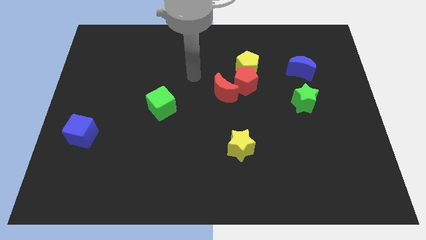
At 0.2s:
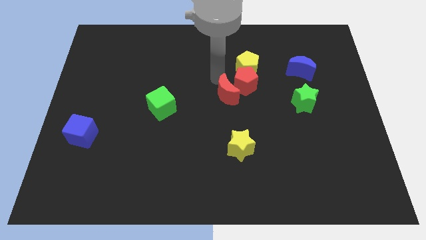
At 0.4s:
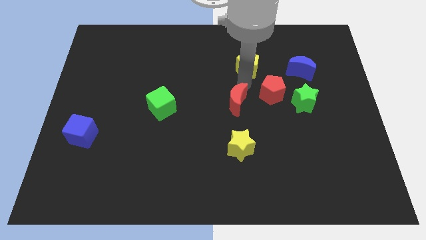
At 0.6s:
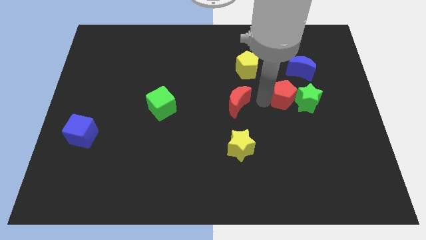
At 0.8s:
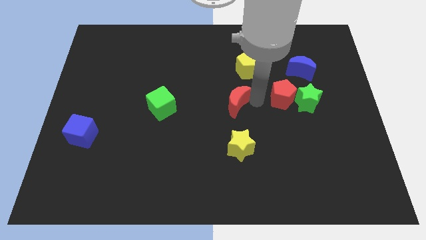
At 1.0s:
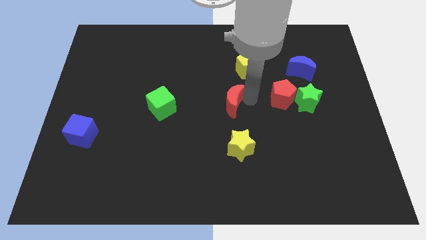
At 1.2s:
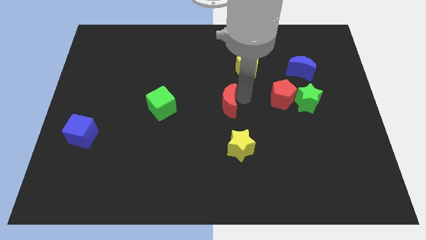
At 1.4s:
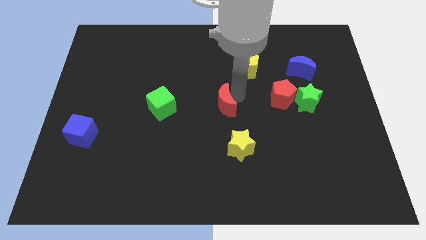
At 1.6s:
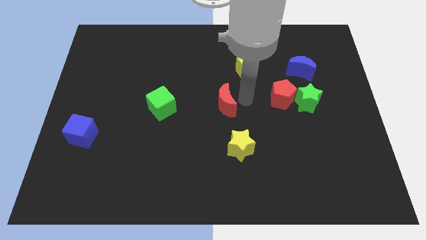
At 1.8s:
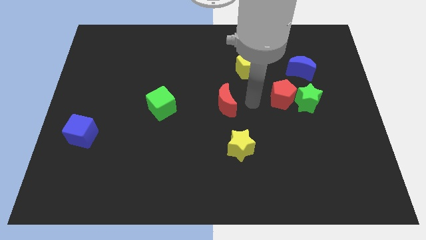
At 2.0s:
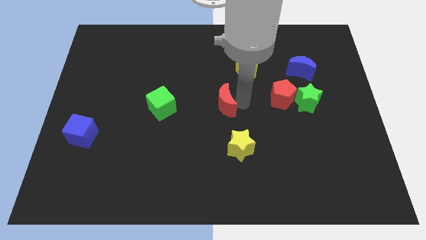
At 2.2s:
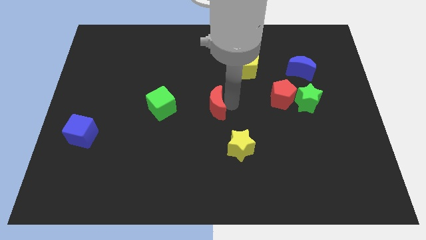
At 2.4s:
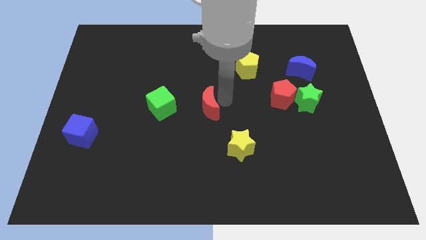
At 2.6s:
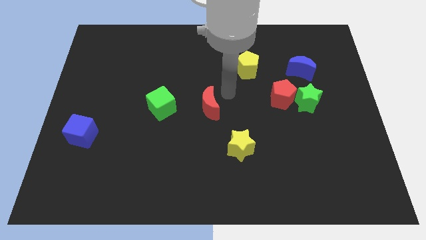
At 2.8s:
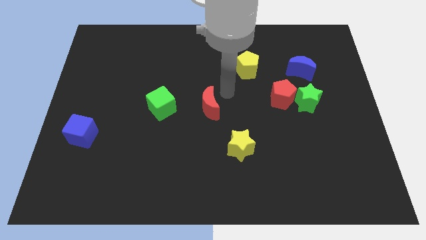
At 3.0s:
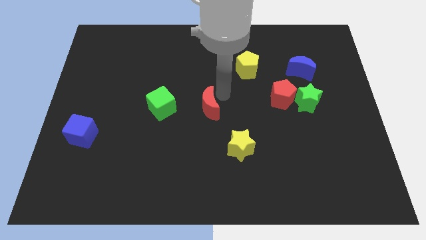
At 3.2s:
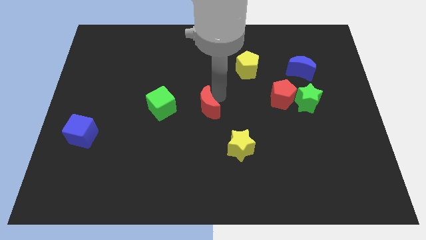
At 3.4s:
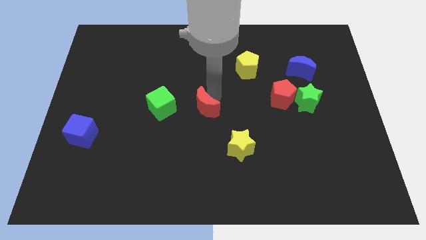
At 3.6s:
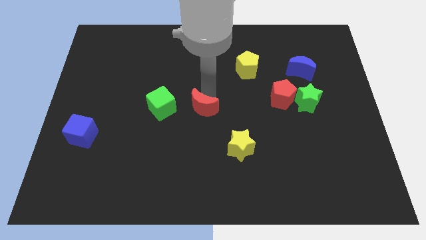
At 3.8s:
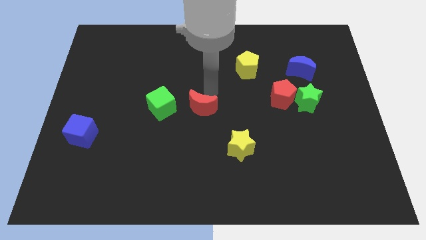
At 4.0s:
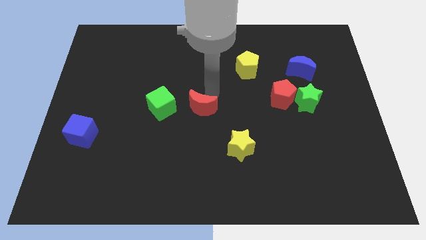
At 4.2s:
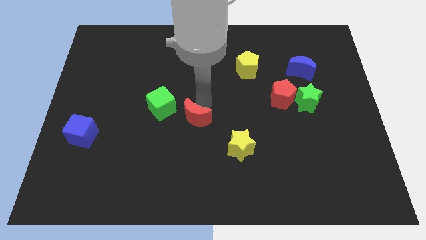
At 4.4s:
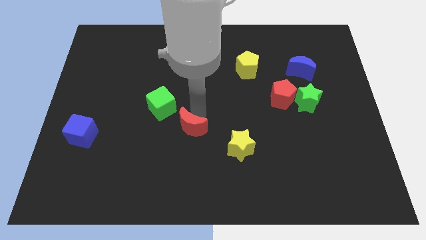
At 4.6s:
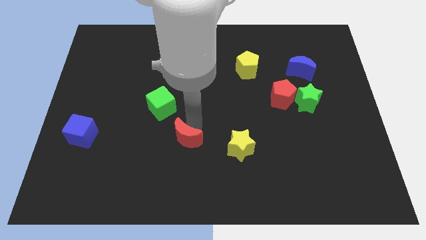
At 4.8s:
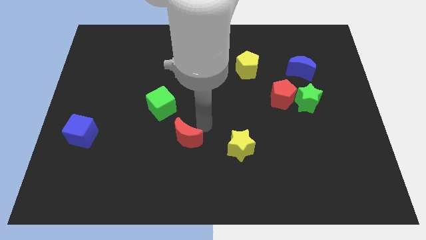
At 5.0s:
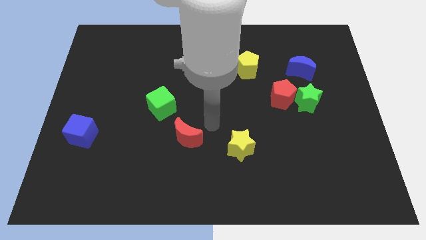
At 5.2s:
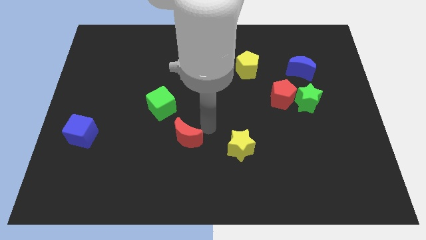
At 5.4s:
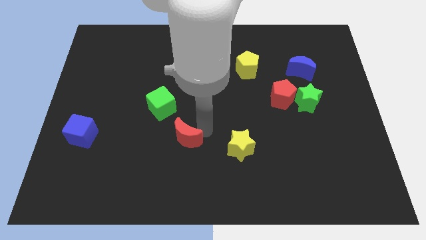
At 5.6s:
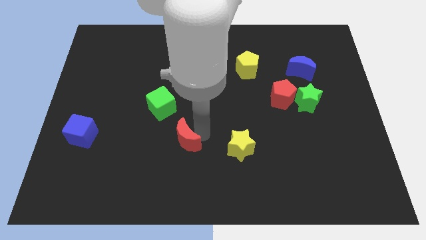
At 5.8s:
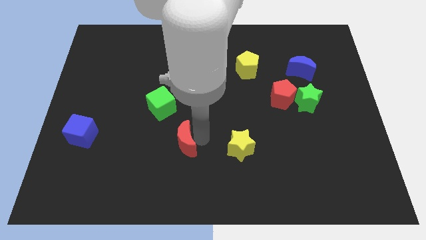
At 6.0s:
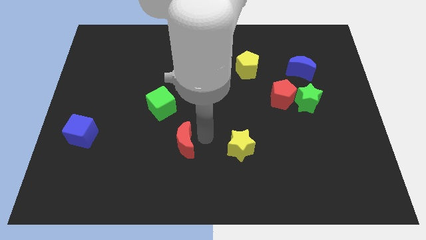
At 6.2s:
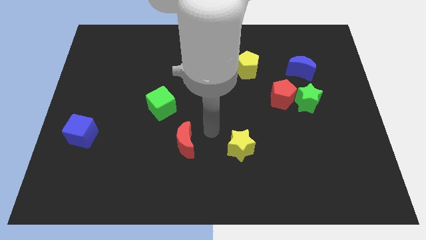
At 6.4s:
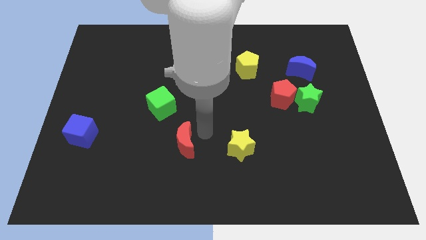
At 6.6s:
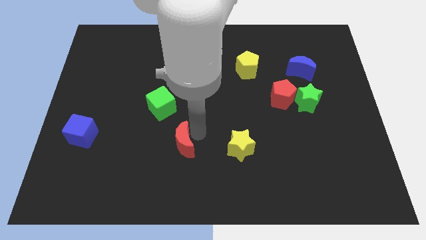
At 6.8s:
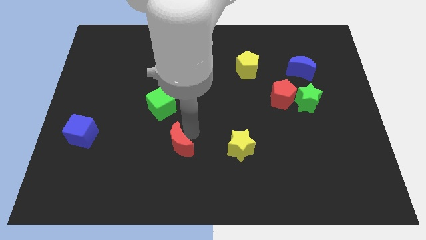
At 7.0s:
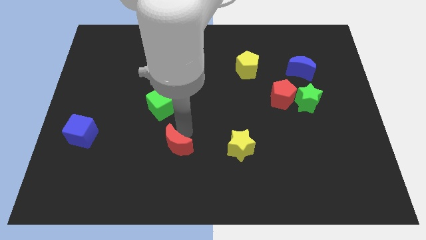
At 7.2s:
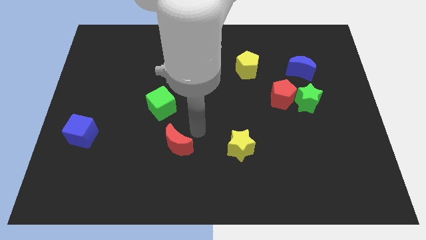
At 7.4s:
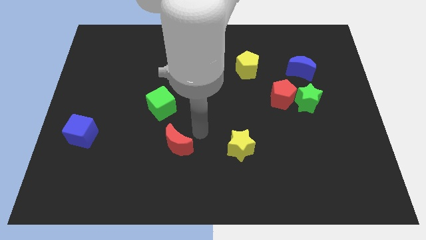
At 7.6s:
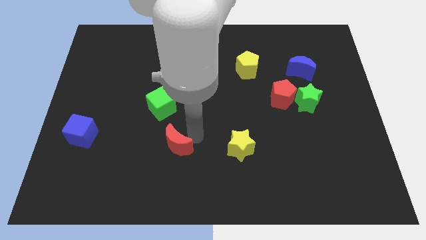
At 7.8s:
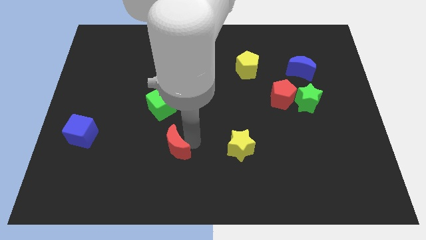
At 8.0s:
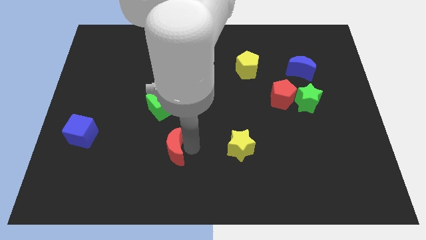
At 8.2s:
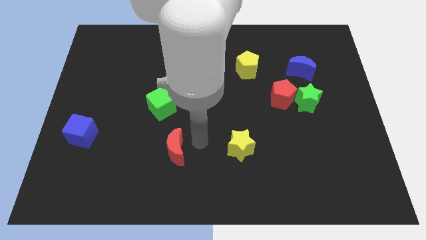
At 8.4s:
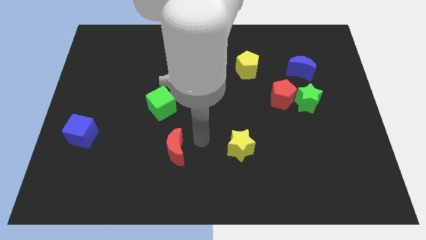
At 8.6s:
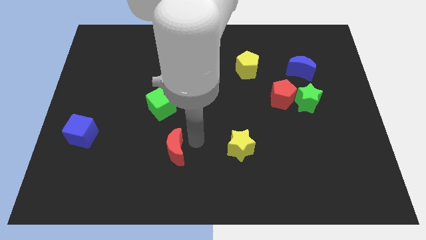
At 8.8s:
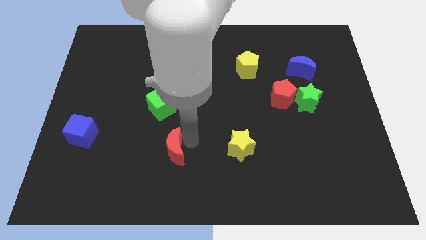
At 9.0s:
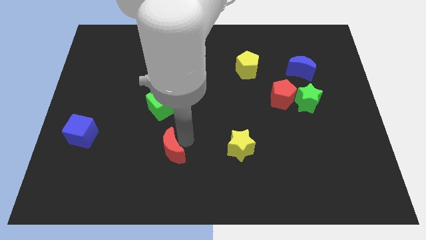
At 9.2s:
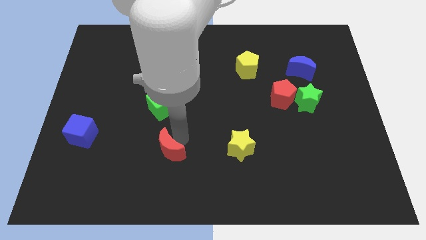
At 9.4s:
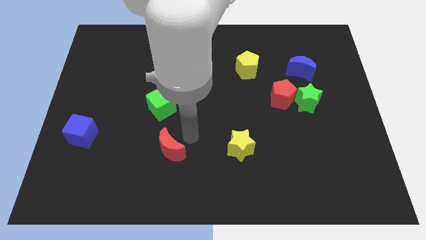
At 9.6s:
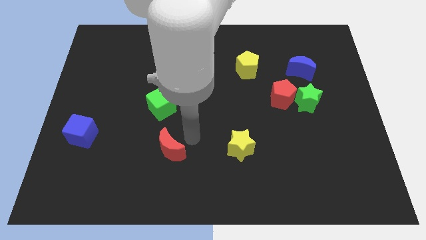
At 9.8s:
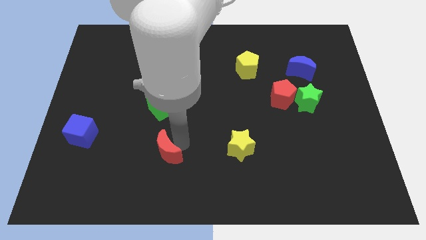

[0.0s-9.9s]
move the red moon down and then to the left

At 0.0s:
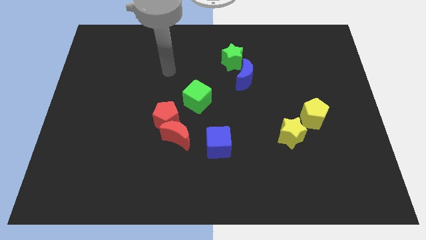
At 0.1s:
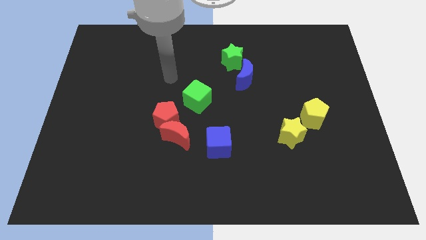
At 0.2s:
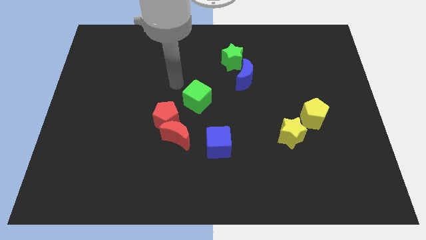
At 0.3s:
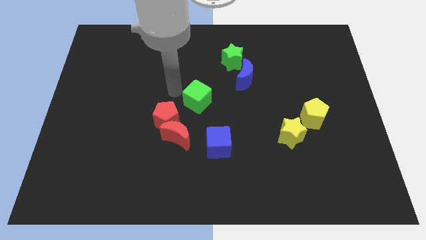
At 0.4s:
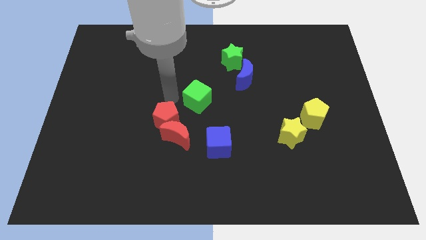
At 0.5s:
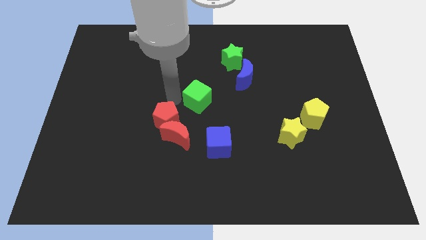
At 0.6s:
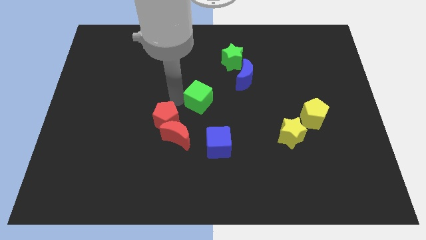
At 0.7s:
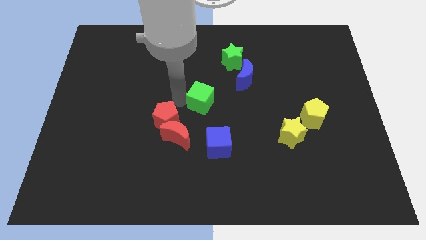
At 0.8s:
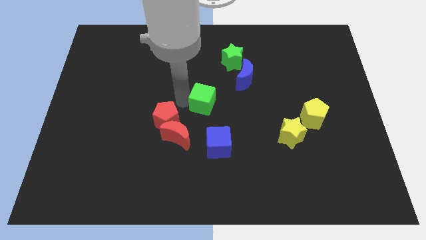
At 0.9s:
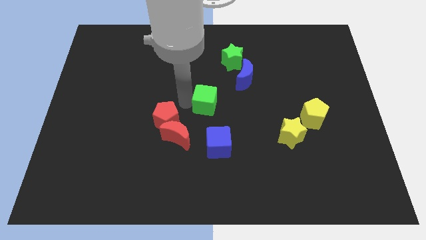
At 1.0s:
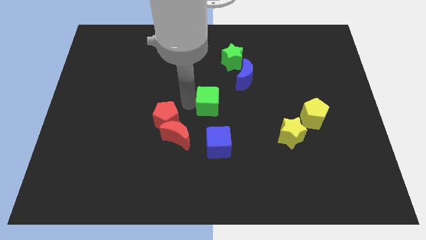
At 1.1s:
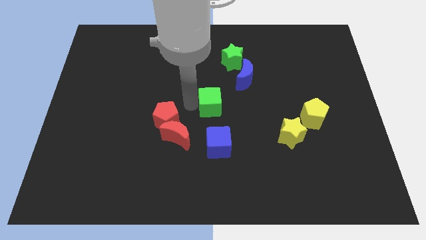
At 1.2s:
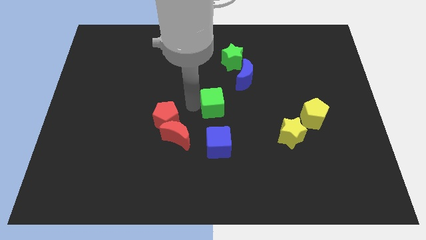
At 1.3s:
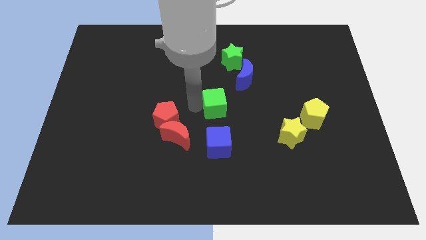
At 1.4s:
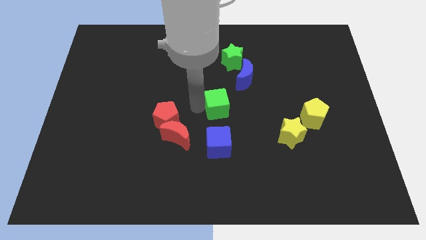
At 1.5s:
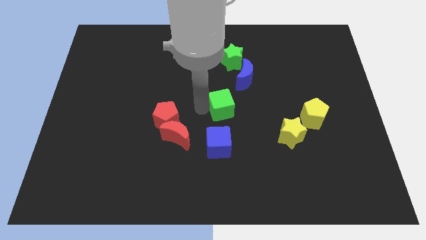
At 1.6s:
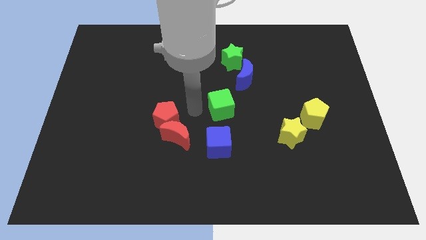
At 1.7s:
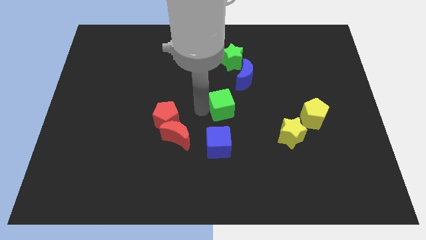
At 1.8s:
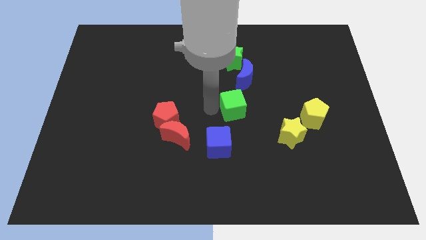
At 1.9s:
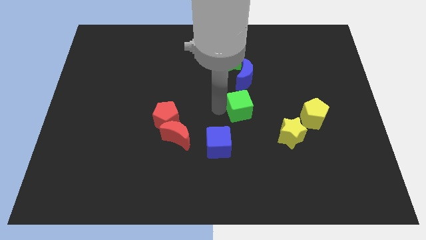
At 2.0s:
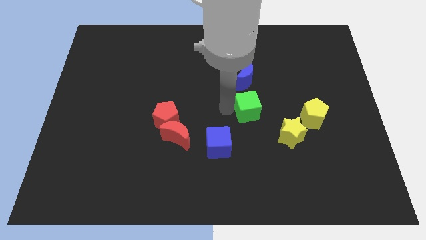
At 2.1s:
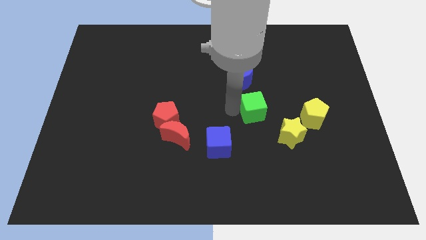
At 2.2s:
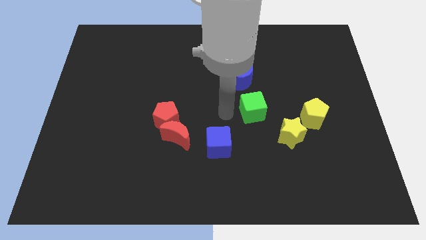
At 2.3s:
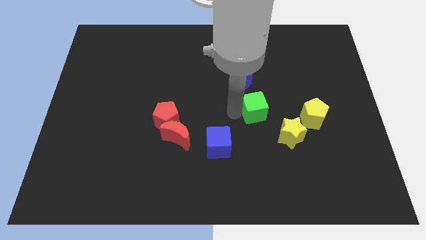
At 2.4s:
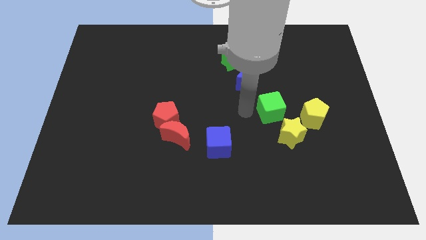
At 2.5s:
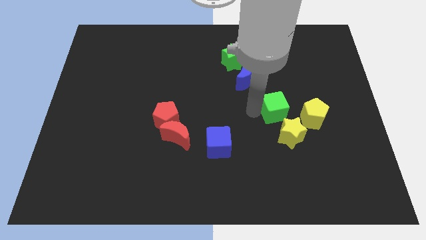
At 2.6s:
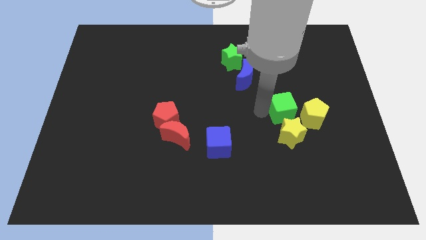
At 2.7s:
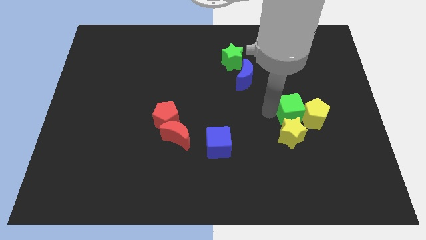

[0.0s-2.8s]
push the green cube right

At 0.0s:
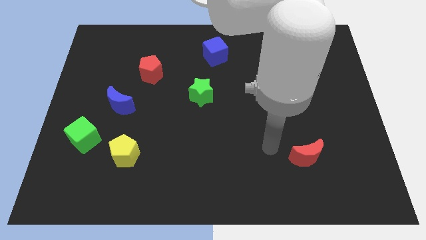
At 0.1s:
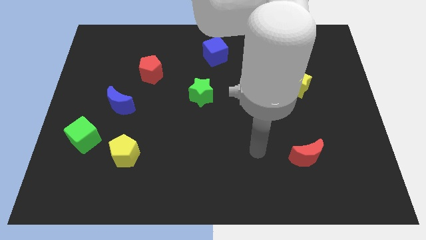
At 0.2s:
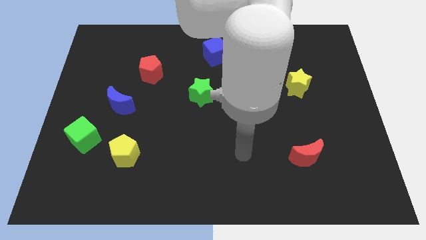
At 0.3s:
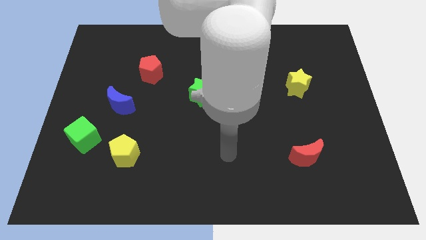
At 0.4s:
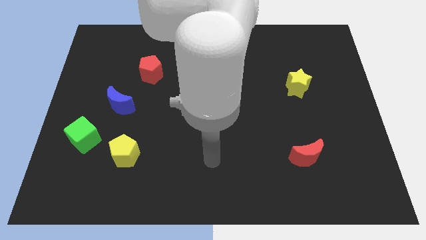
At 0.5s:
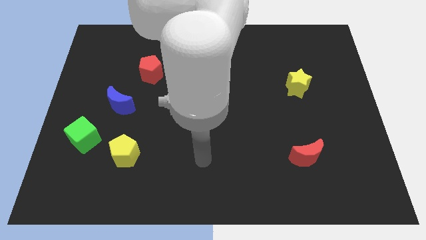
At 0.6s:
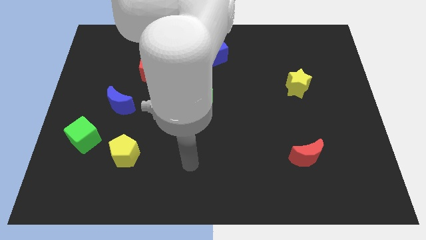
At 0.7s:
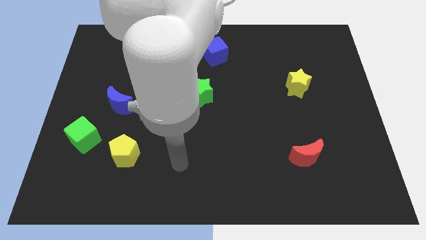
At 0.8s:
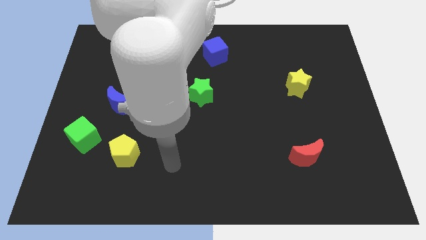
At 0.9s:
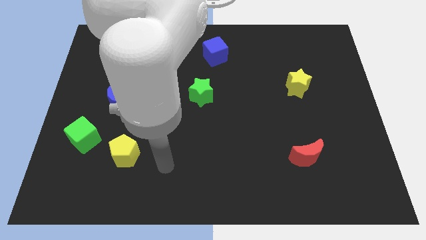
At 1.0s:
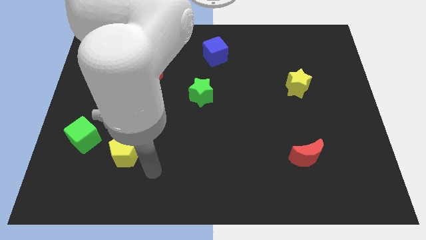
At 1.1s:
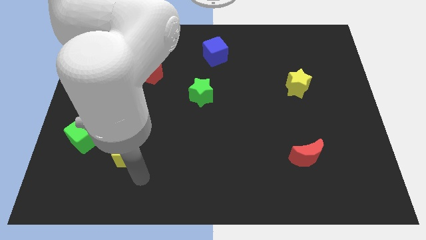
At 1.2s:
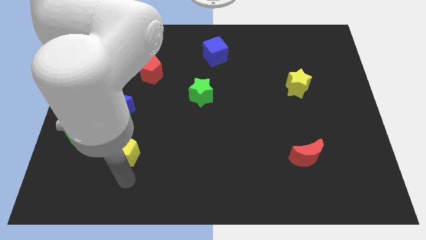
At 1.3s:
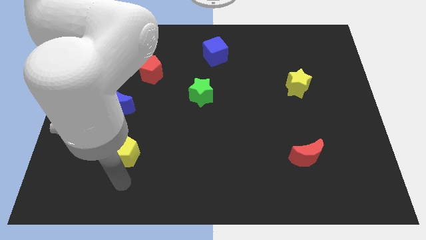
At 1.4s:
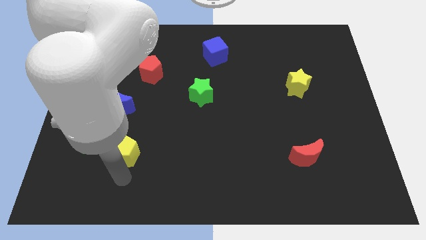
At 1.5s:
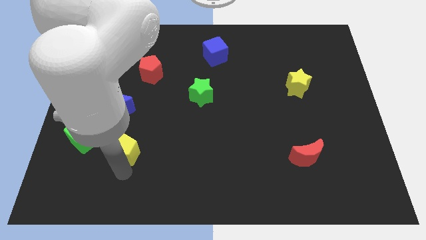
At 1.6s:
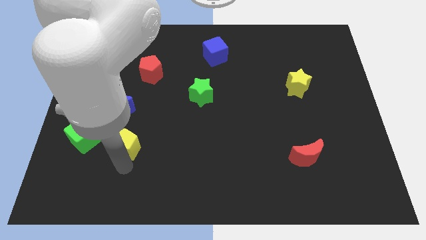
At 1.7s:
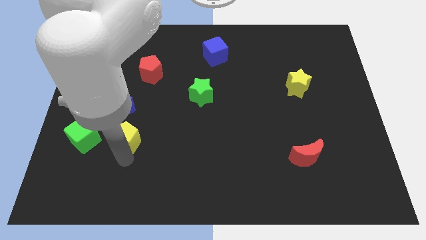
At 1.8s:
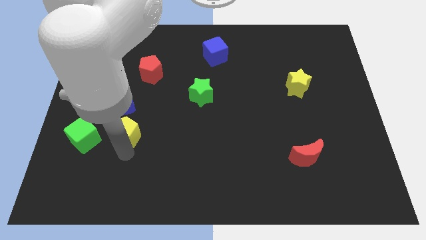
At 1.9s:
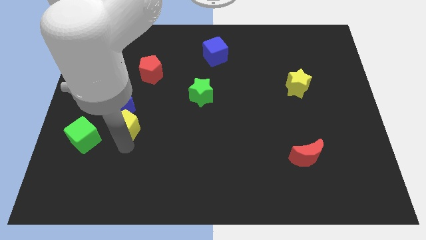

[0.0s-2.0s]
slightly slide the yellow pentagon upwards
